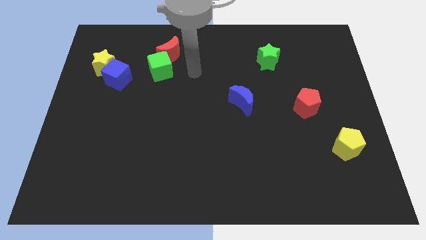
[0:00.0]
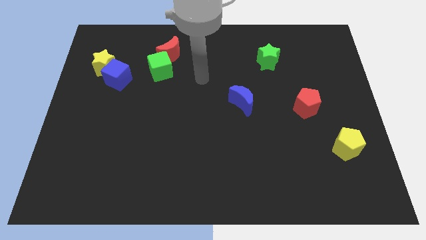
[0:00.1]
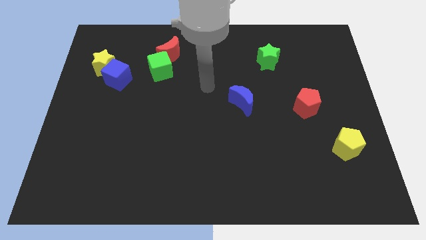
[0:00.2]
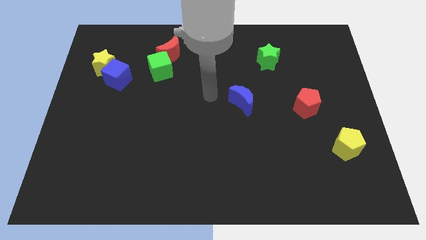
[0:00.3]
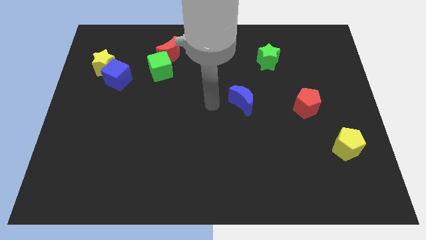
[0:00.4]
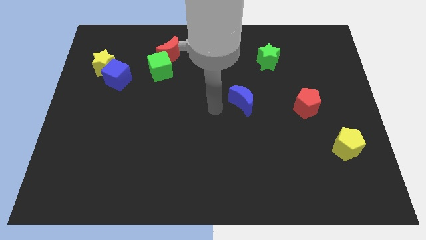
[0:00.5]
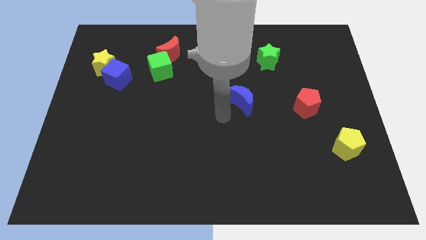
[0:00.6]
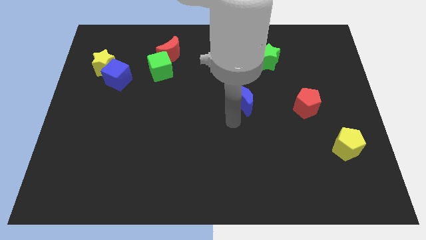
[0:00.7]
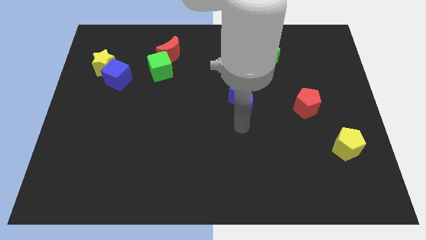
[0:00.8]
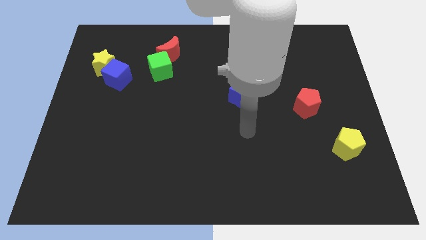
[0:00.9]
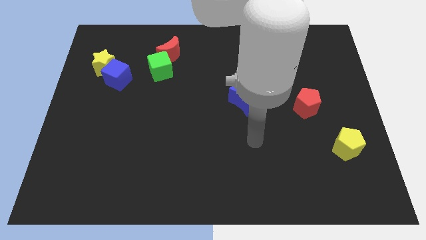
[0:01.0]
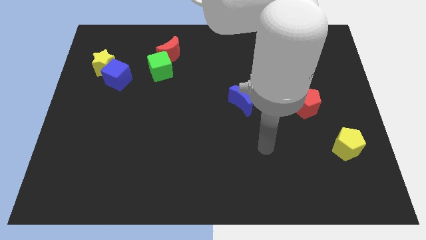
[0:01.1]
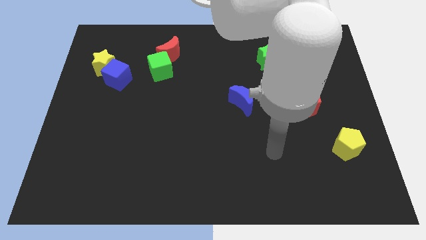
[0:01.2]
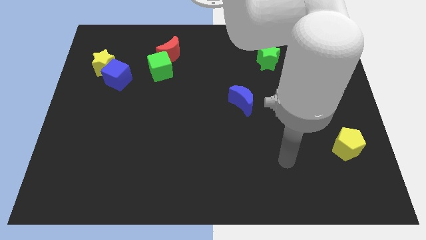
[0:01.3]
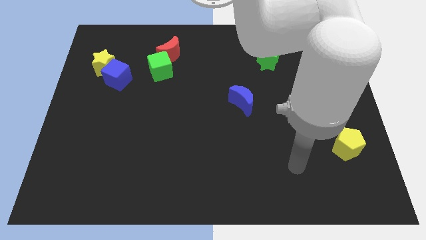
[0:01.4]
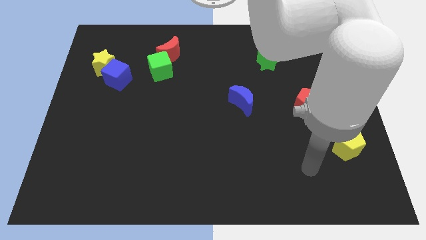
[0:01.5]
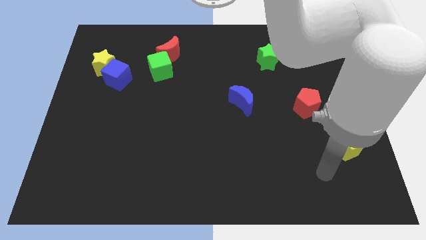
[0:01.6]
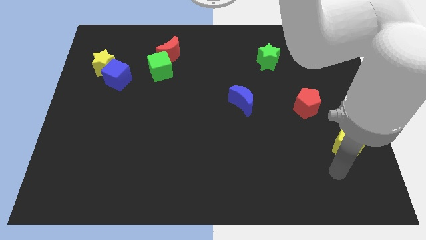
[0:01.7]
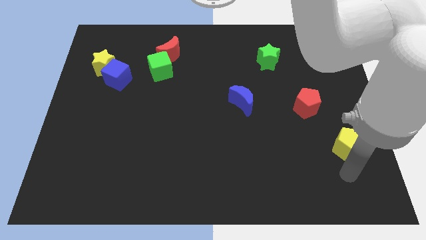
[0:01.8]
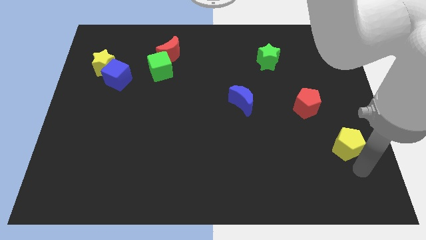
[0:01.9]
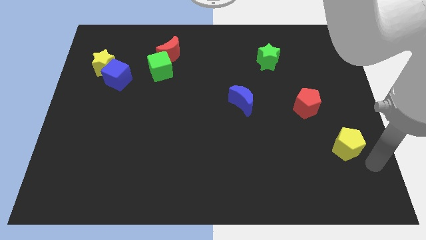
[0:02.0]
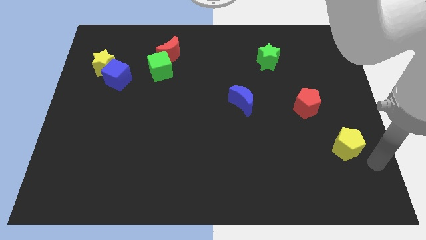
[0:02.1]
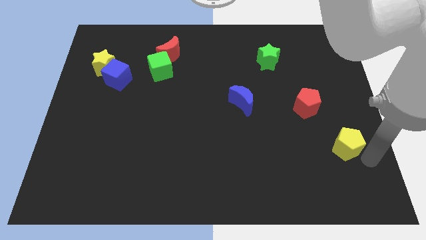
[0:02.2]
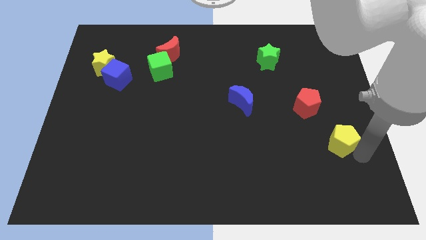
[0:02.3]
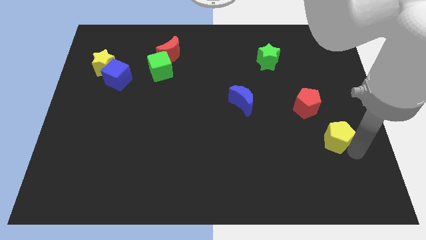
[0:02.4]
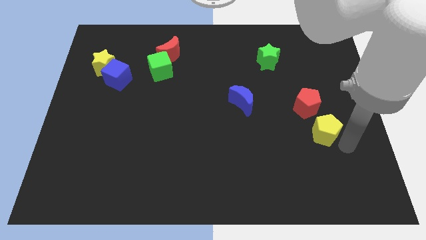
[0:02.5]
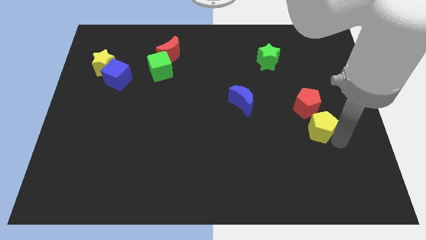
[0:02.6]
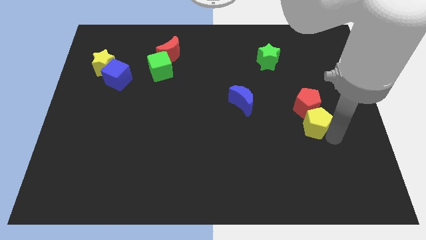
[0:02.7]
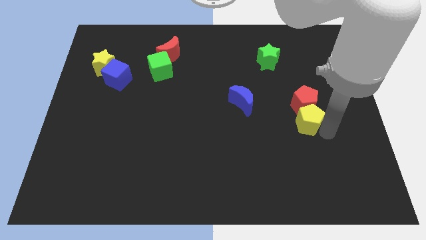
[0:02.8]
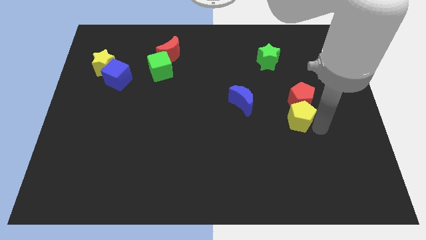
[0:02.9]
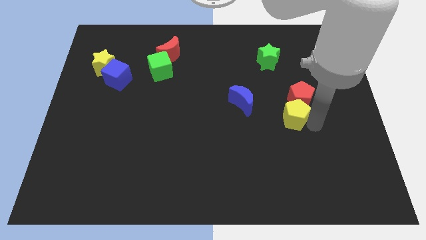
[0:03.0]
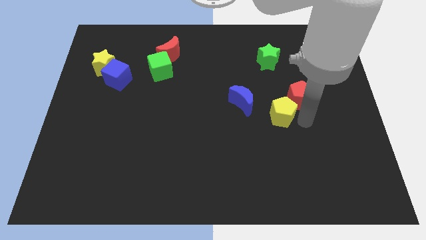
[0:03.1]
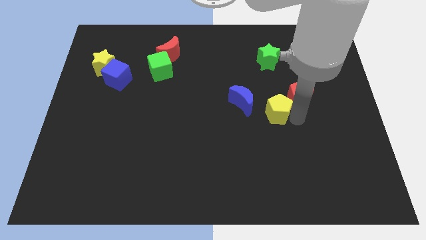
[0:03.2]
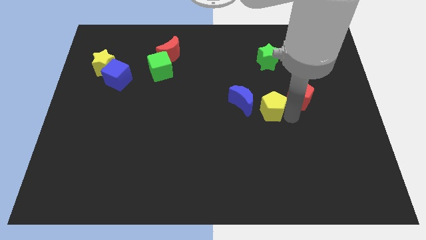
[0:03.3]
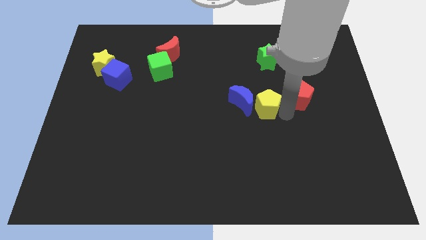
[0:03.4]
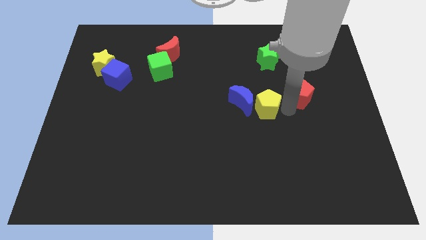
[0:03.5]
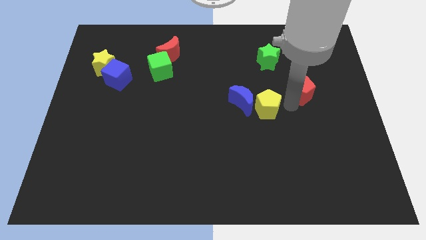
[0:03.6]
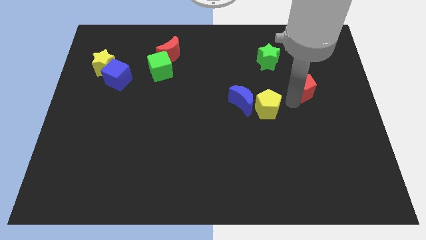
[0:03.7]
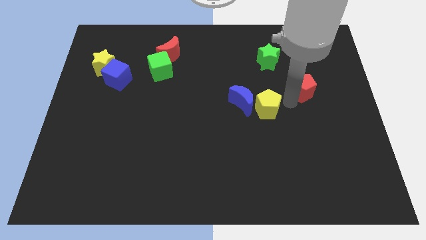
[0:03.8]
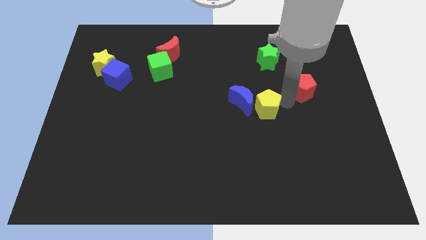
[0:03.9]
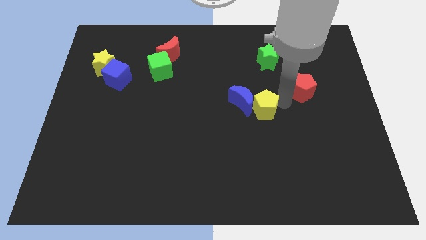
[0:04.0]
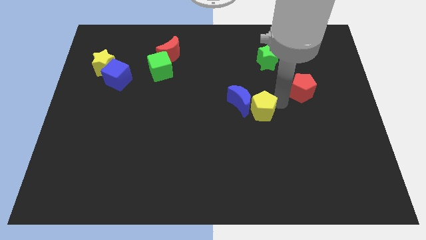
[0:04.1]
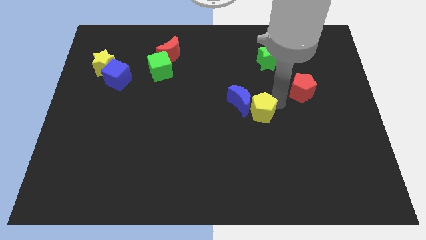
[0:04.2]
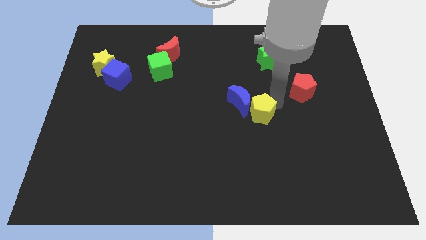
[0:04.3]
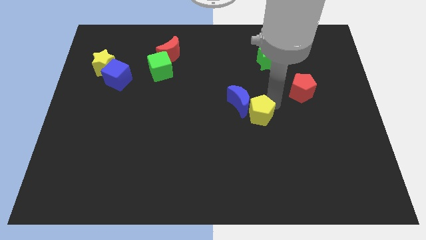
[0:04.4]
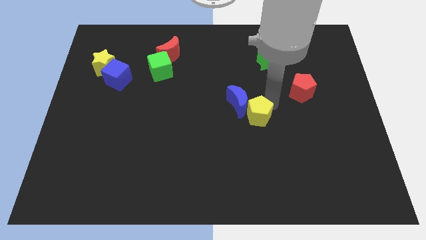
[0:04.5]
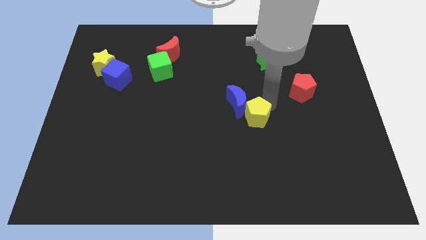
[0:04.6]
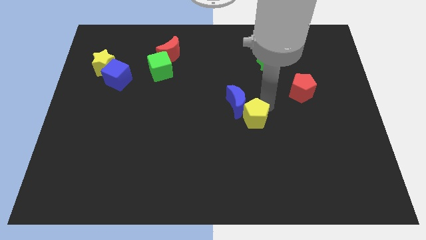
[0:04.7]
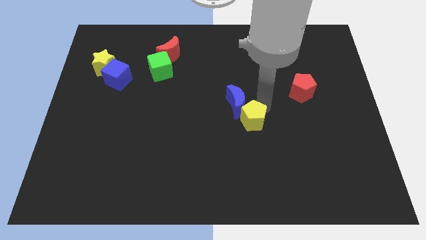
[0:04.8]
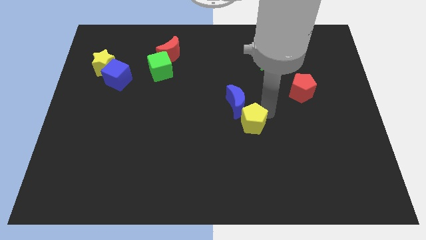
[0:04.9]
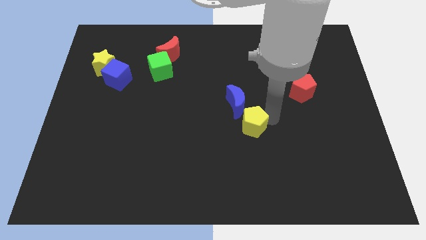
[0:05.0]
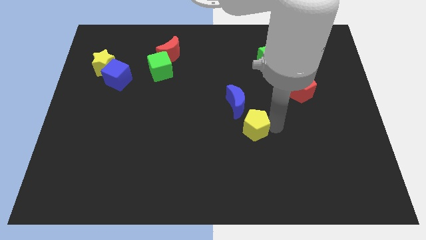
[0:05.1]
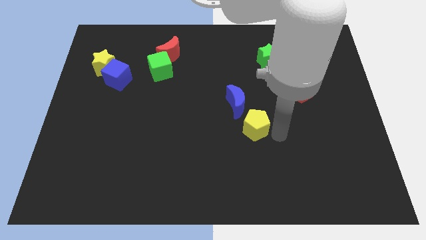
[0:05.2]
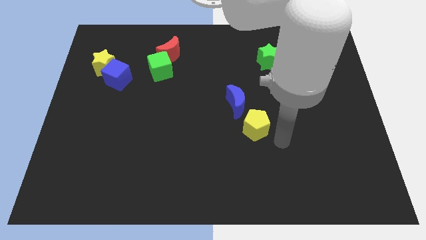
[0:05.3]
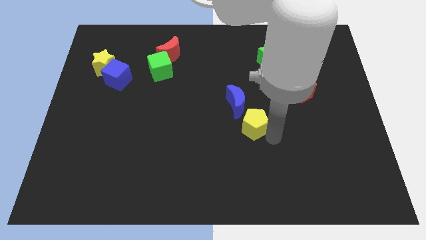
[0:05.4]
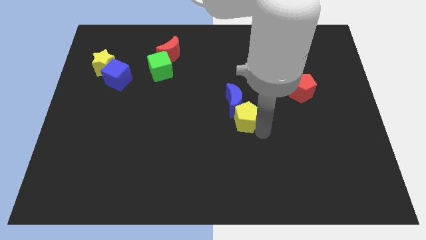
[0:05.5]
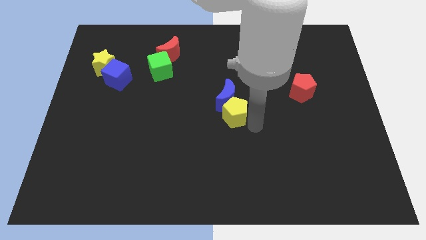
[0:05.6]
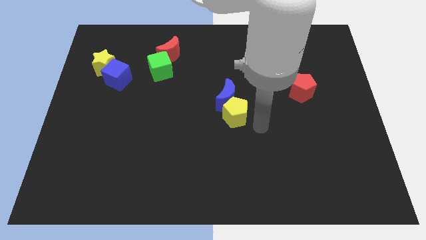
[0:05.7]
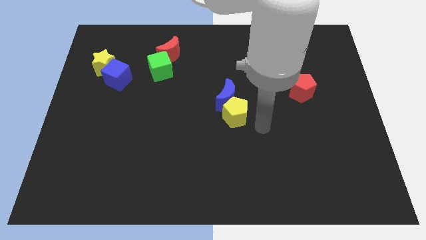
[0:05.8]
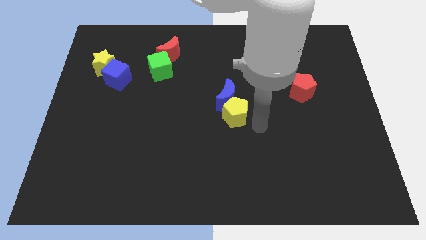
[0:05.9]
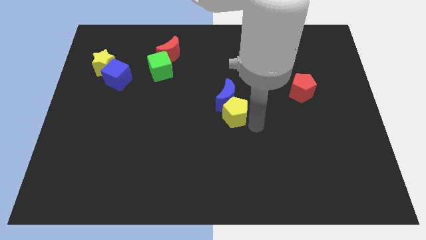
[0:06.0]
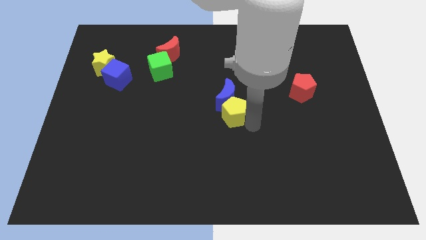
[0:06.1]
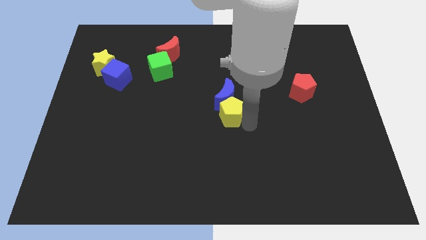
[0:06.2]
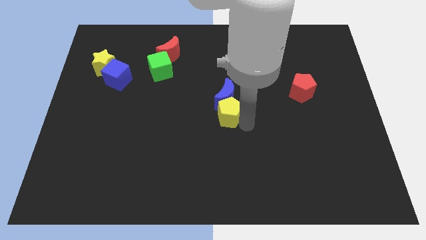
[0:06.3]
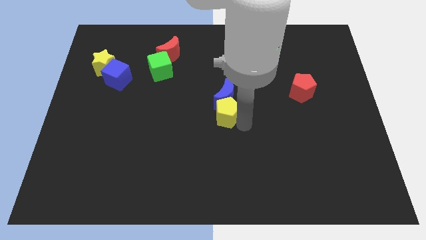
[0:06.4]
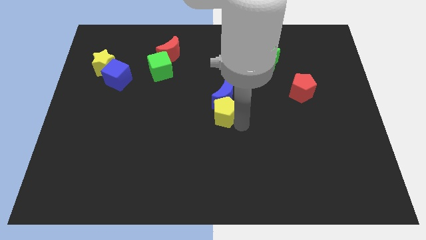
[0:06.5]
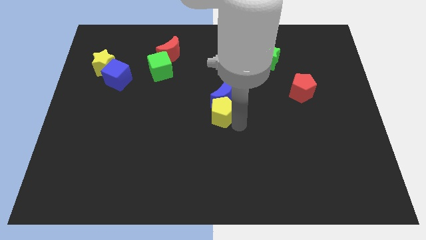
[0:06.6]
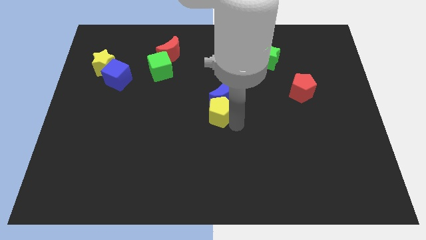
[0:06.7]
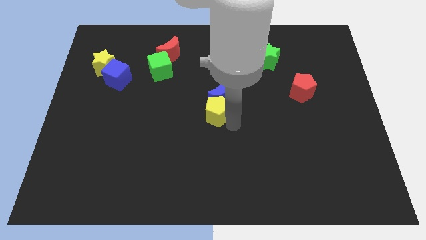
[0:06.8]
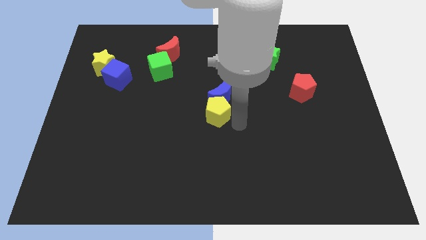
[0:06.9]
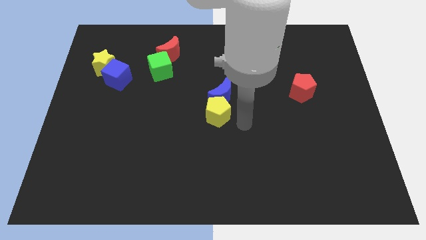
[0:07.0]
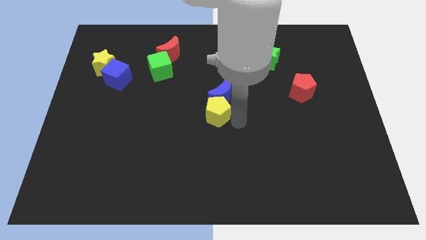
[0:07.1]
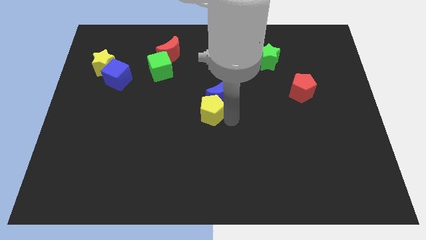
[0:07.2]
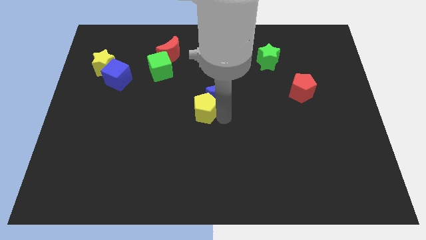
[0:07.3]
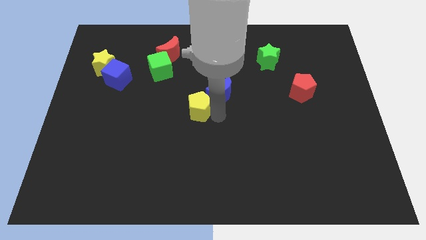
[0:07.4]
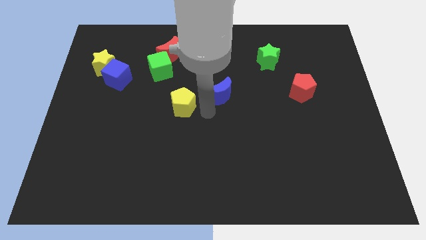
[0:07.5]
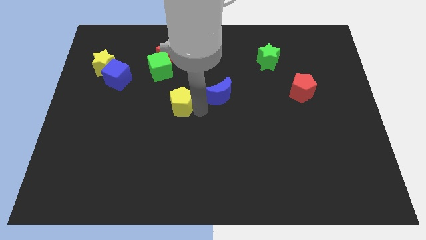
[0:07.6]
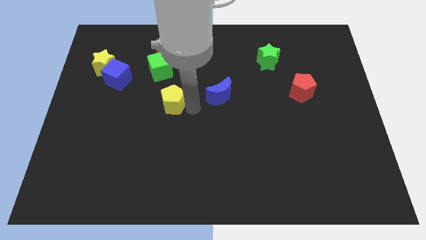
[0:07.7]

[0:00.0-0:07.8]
put the yellow pentagon below the green cube
